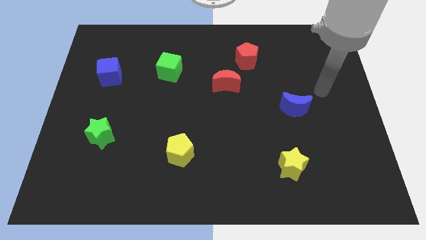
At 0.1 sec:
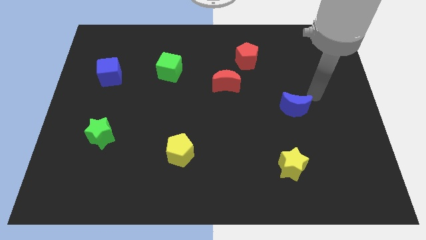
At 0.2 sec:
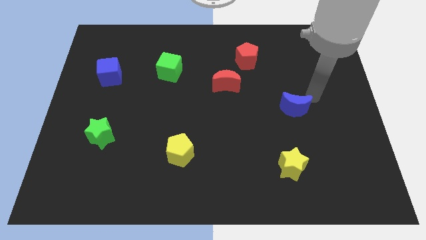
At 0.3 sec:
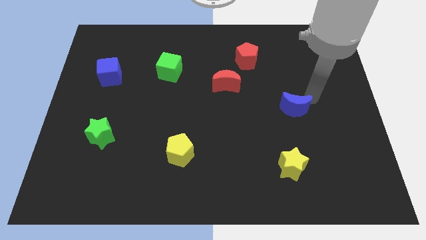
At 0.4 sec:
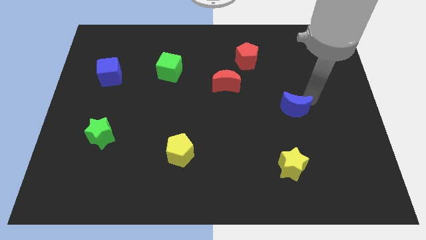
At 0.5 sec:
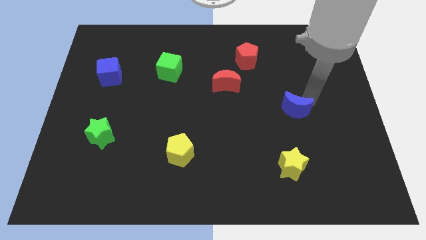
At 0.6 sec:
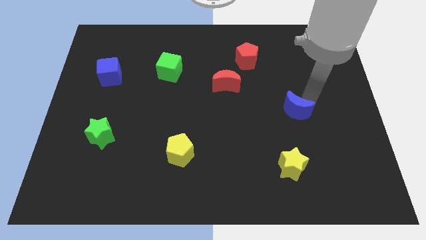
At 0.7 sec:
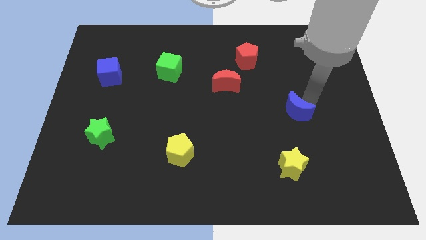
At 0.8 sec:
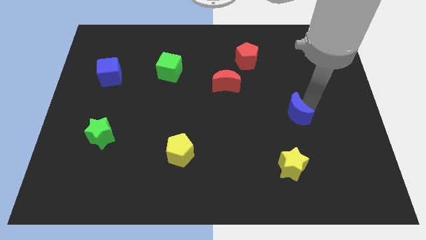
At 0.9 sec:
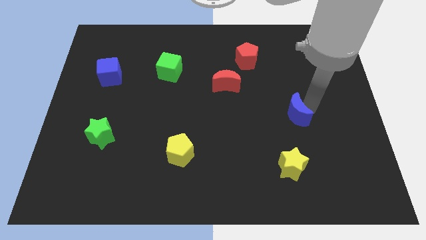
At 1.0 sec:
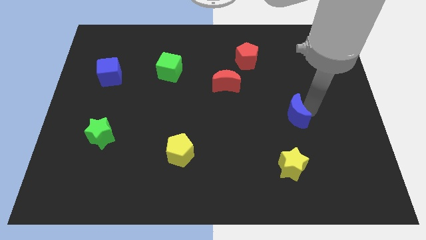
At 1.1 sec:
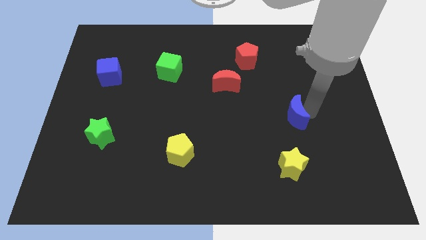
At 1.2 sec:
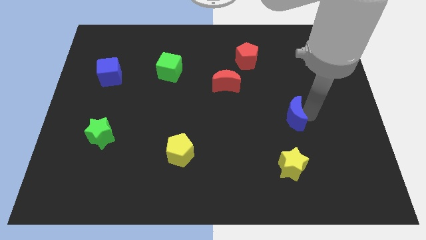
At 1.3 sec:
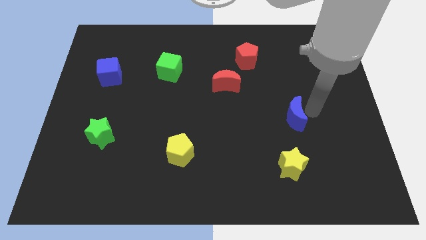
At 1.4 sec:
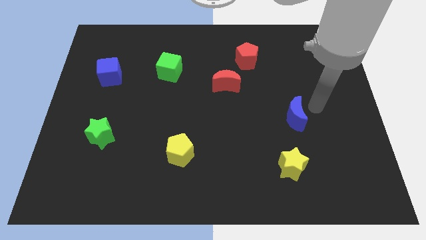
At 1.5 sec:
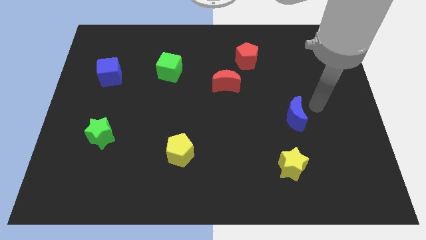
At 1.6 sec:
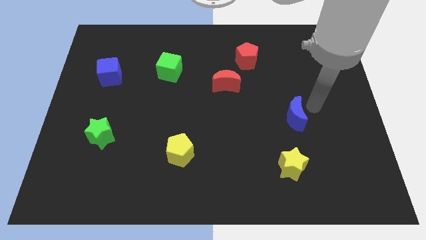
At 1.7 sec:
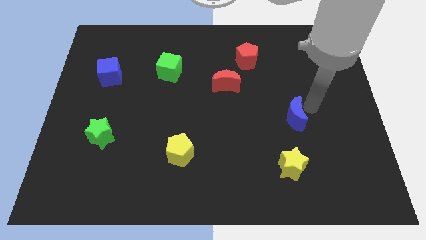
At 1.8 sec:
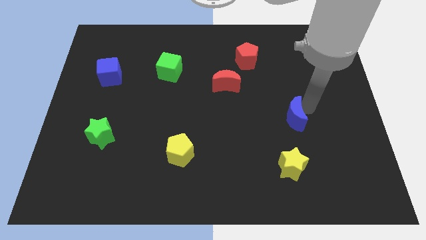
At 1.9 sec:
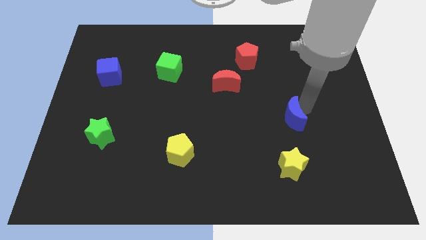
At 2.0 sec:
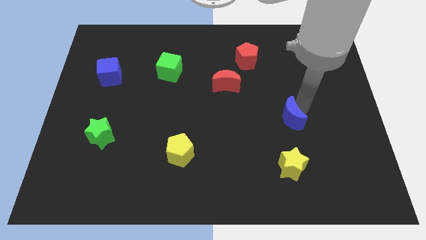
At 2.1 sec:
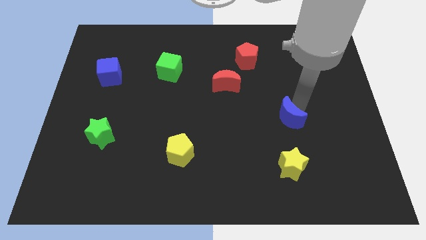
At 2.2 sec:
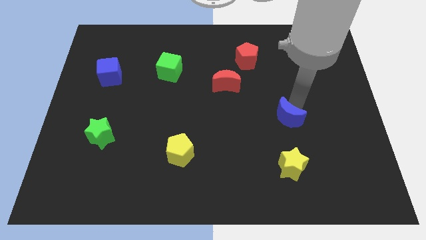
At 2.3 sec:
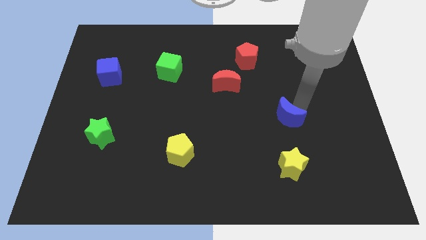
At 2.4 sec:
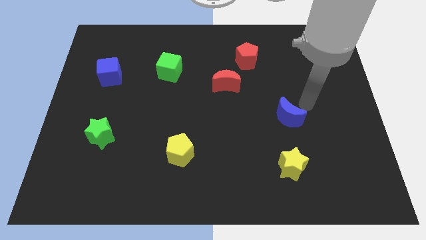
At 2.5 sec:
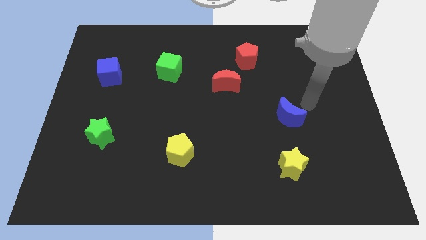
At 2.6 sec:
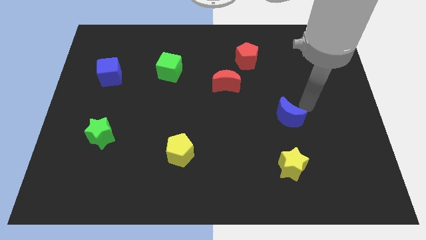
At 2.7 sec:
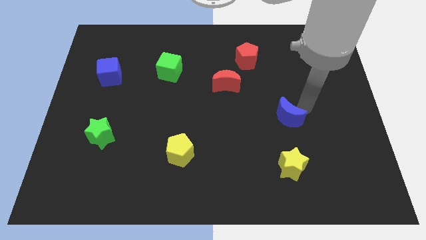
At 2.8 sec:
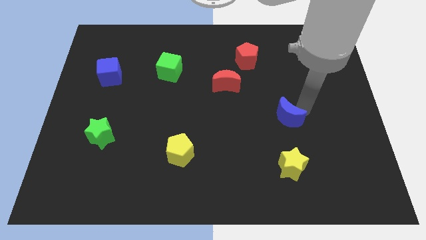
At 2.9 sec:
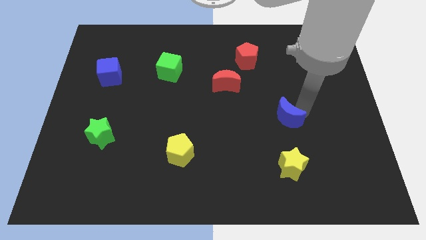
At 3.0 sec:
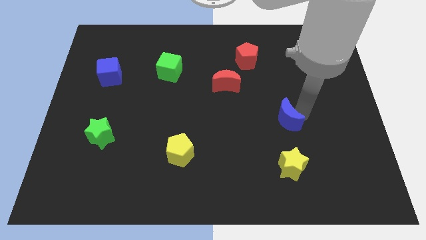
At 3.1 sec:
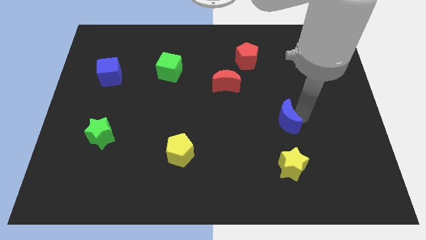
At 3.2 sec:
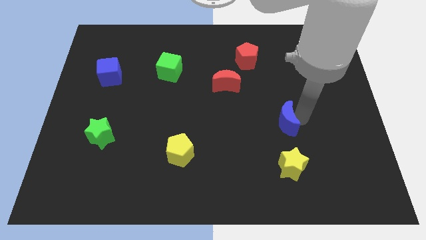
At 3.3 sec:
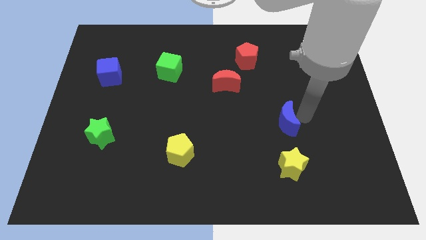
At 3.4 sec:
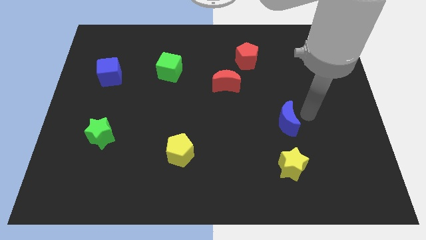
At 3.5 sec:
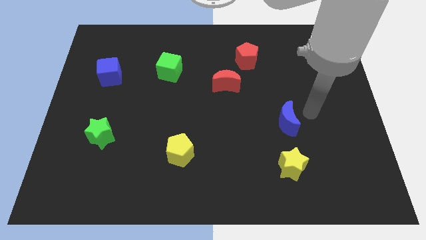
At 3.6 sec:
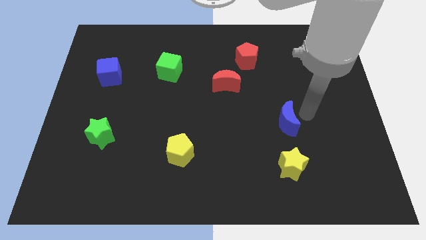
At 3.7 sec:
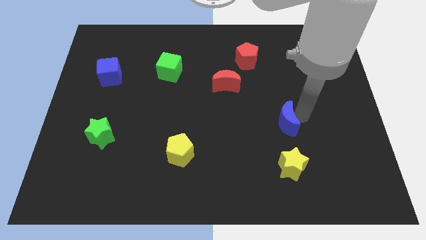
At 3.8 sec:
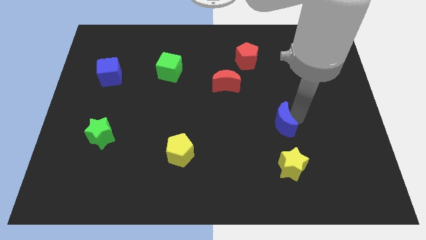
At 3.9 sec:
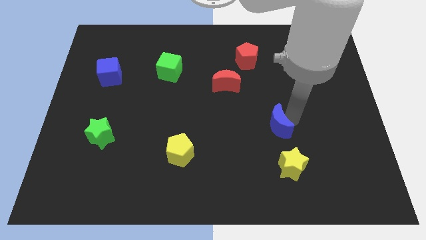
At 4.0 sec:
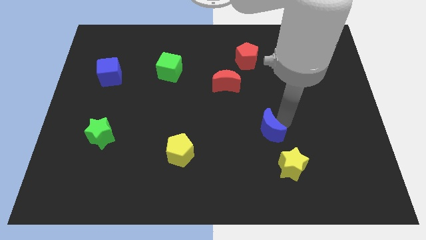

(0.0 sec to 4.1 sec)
move the blue moon a bit diagonally down and left

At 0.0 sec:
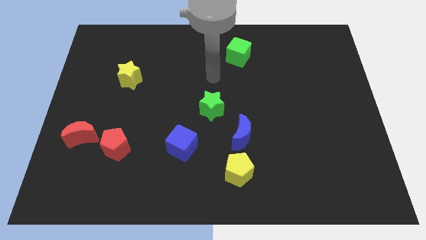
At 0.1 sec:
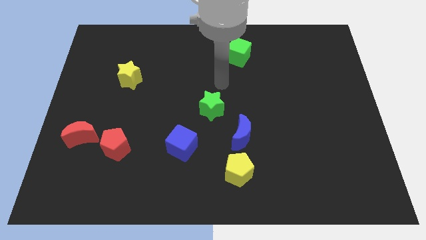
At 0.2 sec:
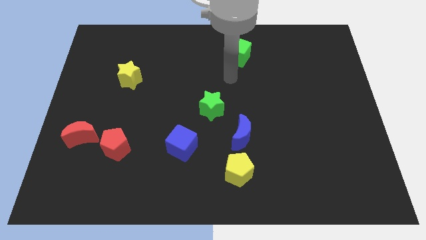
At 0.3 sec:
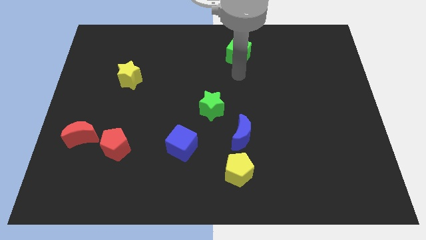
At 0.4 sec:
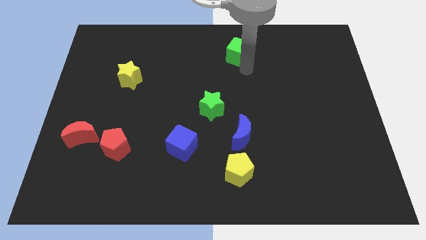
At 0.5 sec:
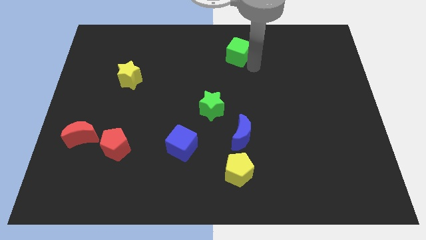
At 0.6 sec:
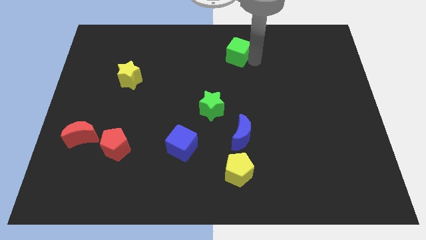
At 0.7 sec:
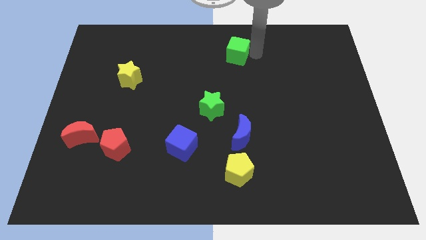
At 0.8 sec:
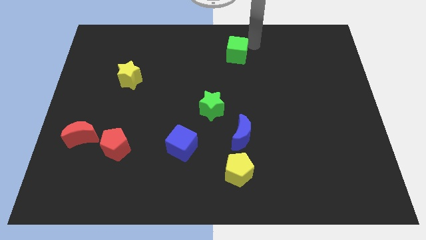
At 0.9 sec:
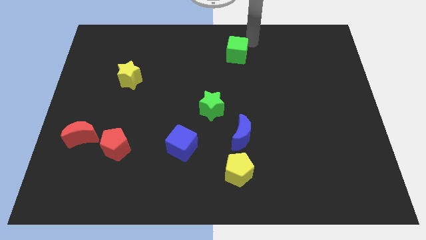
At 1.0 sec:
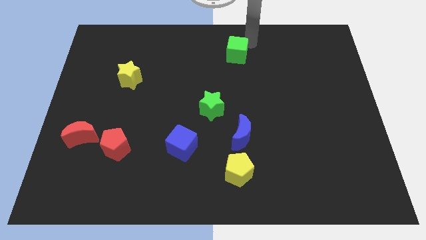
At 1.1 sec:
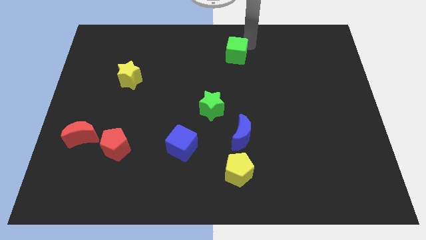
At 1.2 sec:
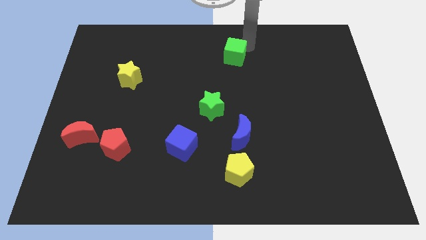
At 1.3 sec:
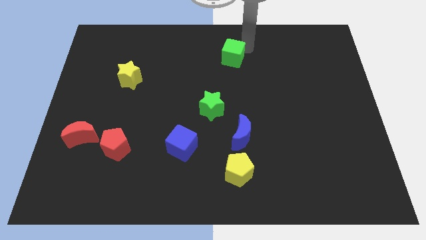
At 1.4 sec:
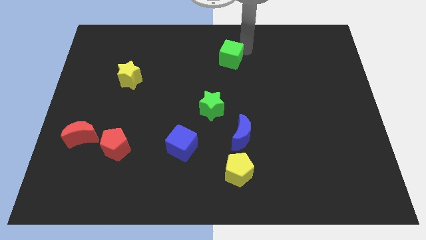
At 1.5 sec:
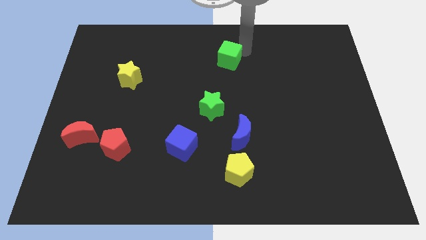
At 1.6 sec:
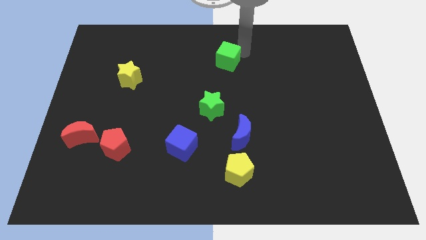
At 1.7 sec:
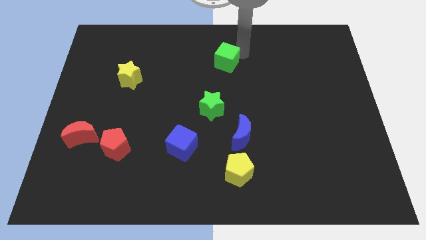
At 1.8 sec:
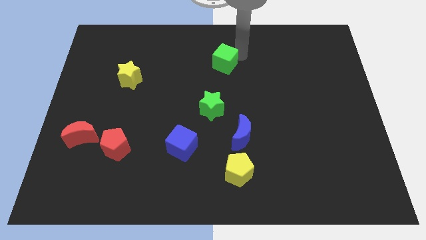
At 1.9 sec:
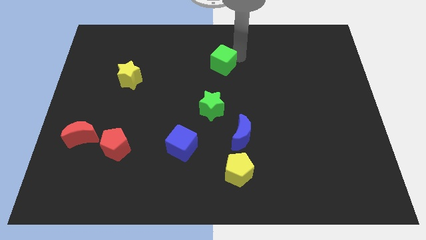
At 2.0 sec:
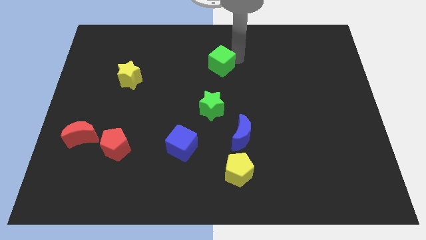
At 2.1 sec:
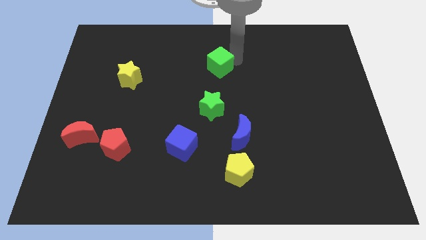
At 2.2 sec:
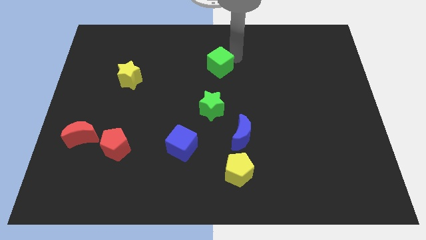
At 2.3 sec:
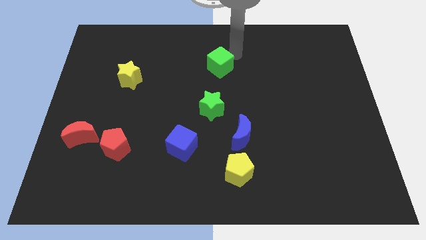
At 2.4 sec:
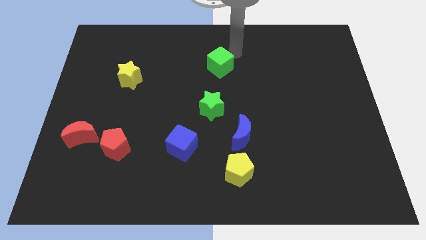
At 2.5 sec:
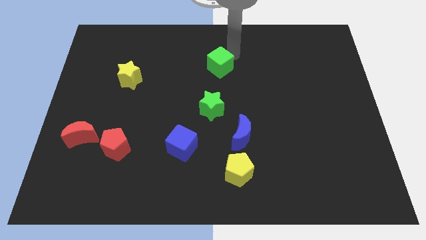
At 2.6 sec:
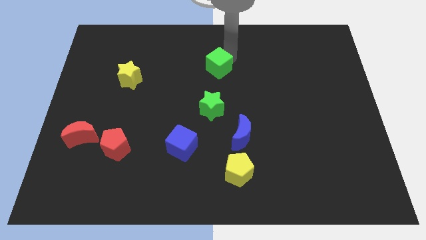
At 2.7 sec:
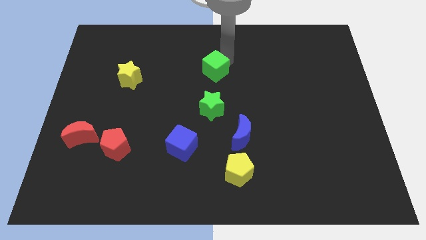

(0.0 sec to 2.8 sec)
move the green cube a little bit down and then left

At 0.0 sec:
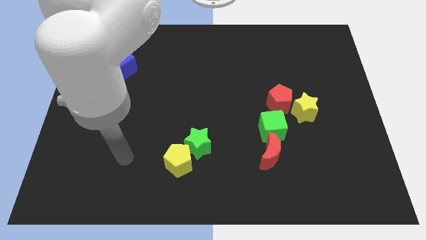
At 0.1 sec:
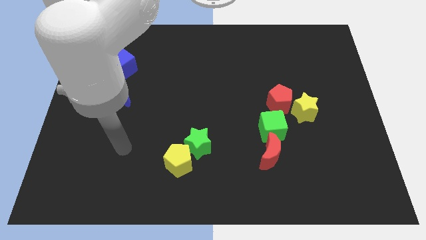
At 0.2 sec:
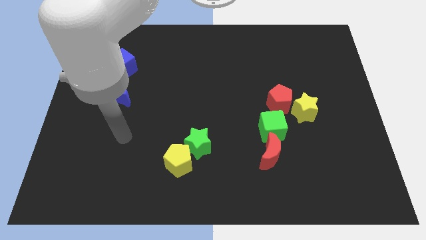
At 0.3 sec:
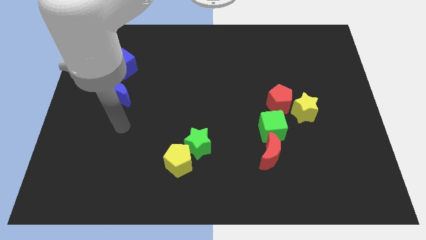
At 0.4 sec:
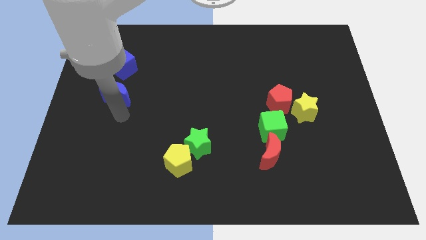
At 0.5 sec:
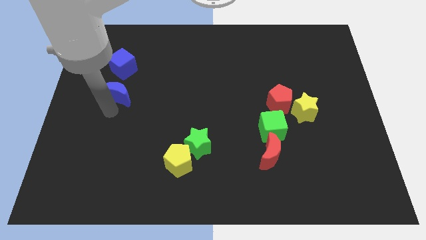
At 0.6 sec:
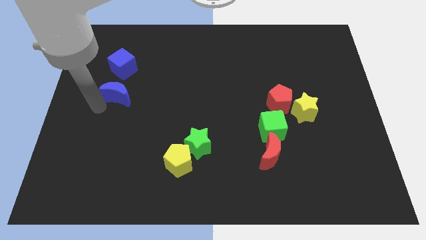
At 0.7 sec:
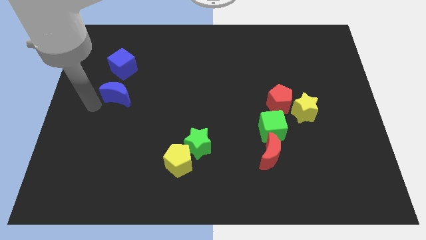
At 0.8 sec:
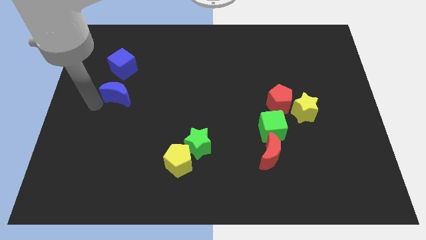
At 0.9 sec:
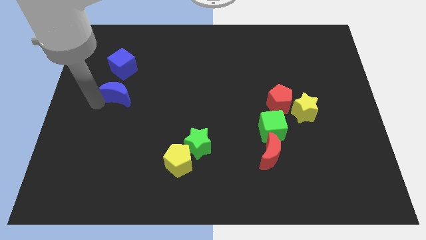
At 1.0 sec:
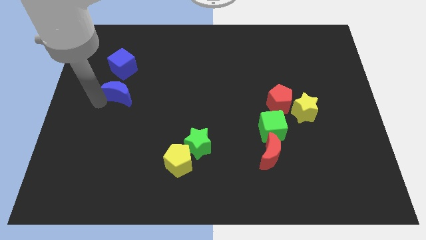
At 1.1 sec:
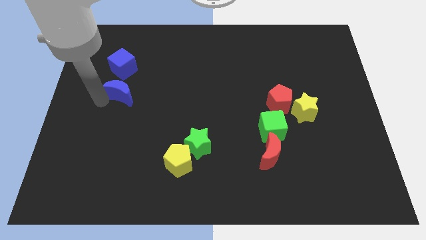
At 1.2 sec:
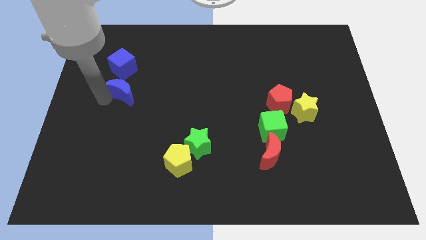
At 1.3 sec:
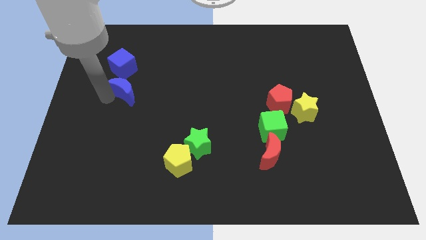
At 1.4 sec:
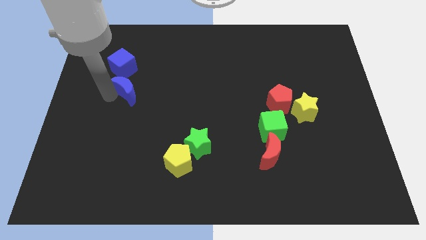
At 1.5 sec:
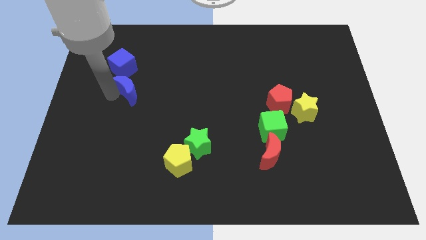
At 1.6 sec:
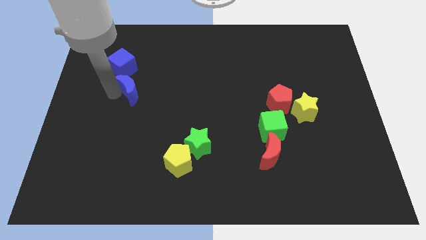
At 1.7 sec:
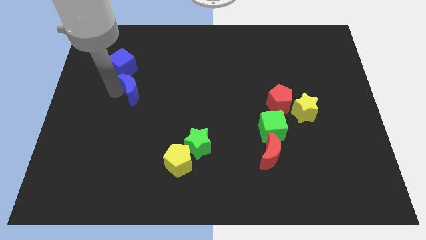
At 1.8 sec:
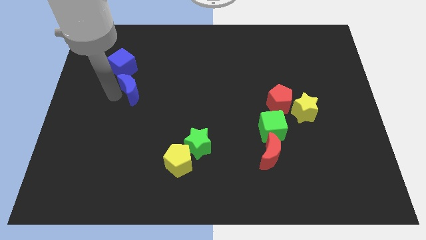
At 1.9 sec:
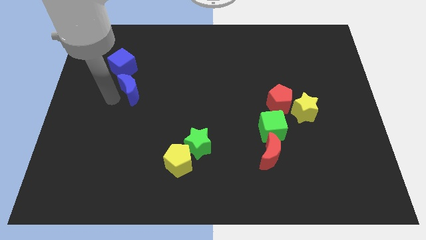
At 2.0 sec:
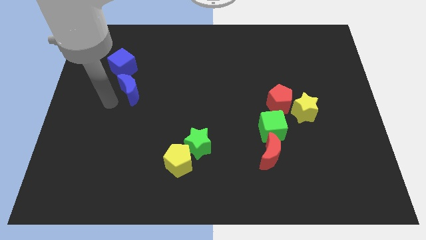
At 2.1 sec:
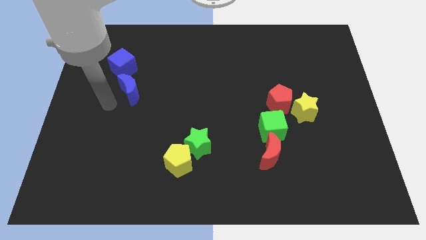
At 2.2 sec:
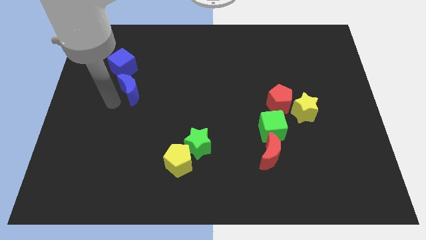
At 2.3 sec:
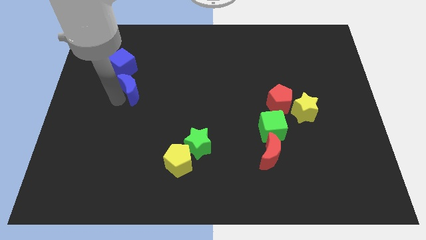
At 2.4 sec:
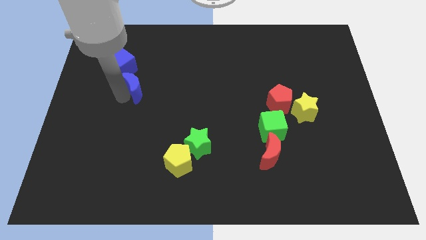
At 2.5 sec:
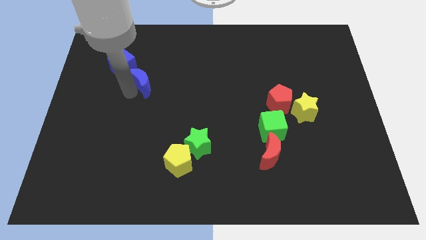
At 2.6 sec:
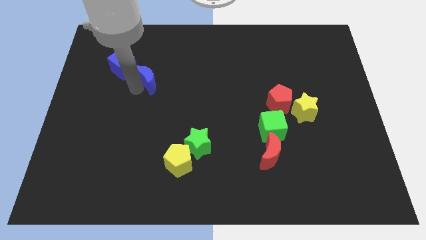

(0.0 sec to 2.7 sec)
push the blue moon upwards and right a bit
